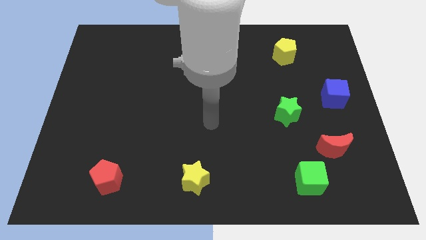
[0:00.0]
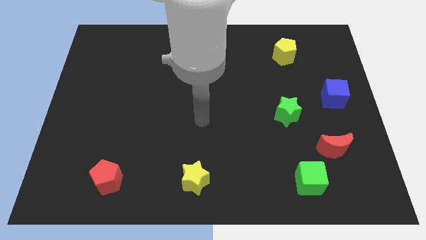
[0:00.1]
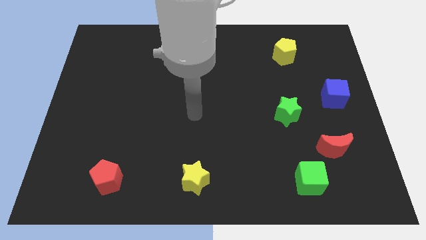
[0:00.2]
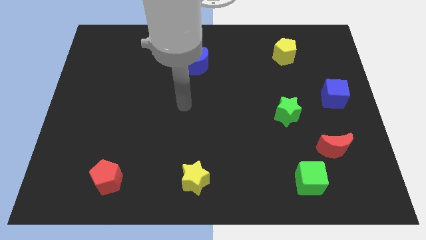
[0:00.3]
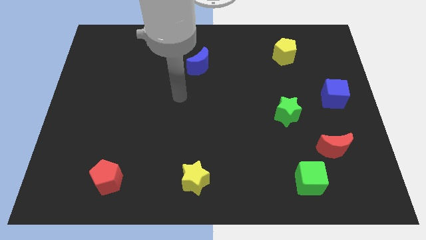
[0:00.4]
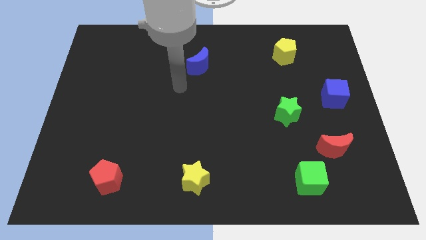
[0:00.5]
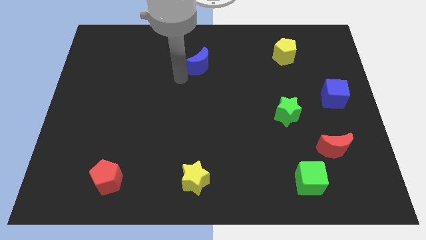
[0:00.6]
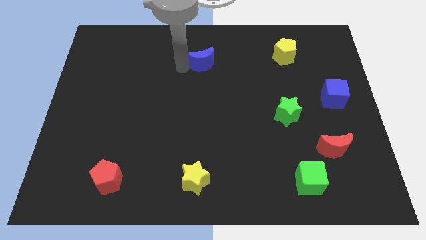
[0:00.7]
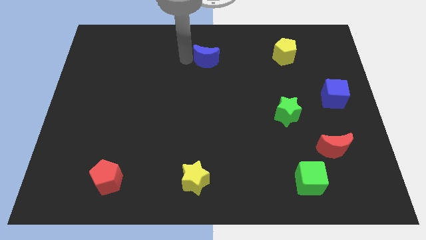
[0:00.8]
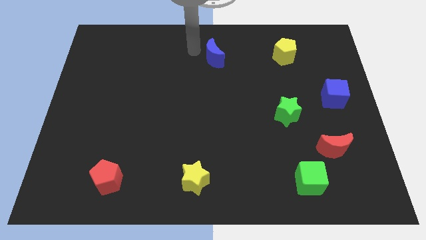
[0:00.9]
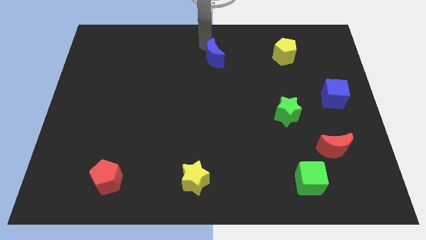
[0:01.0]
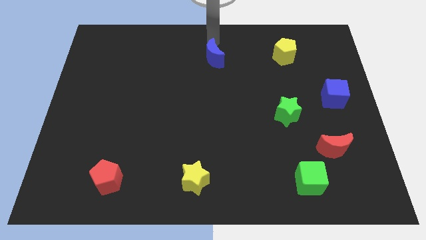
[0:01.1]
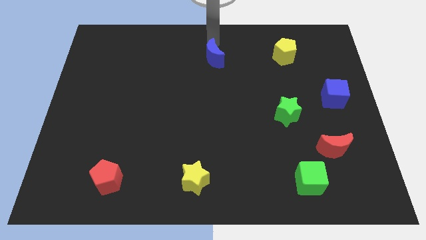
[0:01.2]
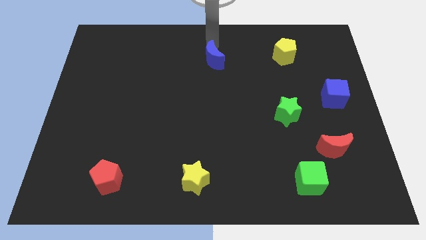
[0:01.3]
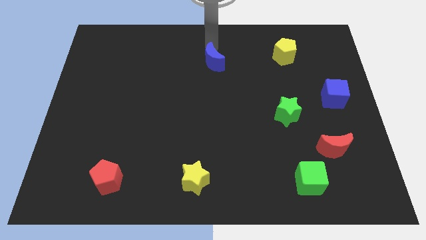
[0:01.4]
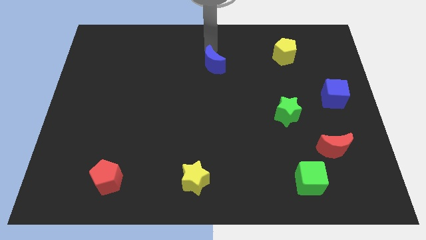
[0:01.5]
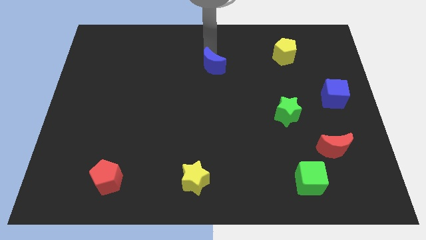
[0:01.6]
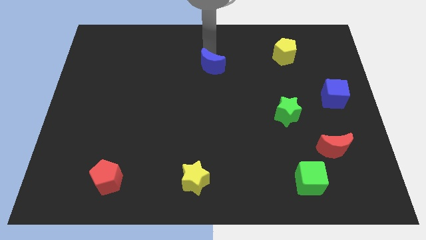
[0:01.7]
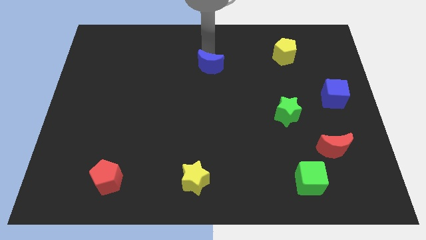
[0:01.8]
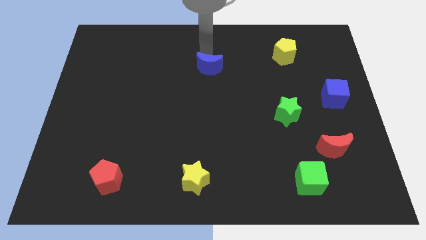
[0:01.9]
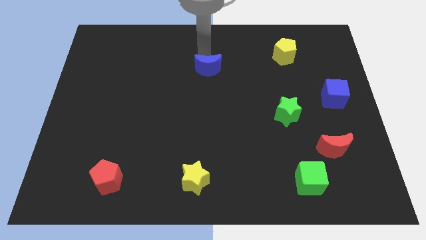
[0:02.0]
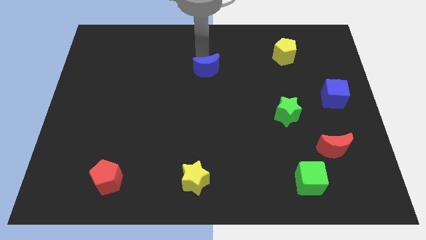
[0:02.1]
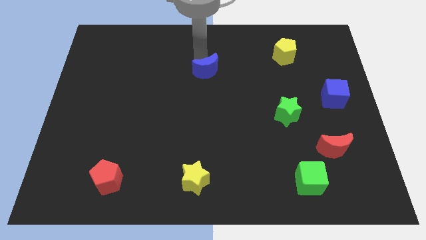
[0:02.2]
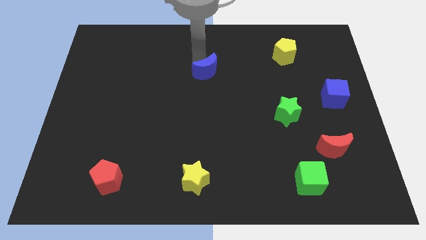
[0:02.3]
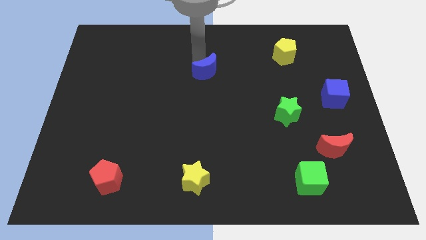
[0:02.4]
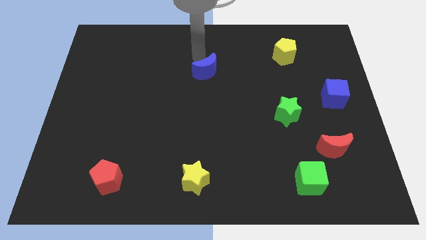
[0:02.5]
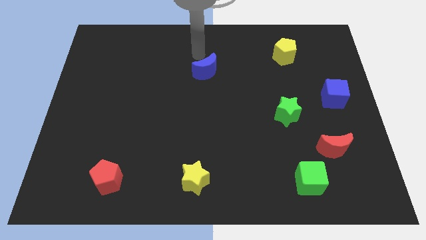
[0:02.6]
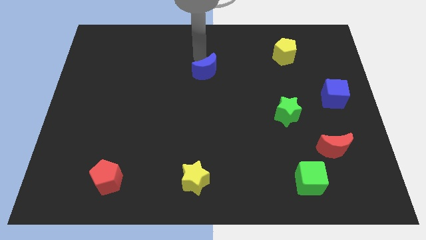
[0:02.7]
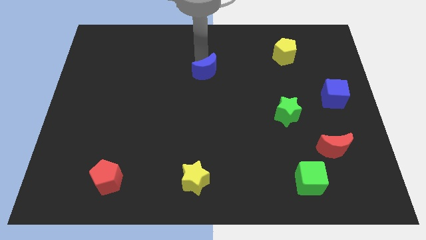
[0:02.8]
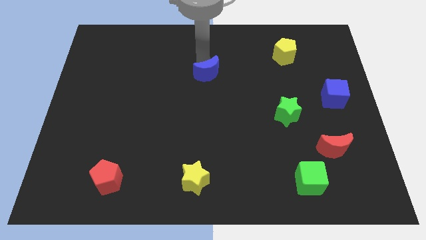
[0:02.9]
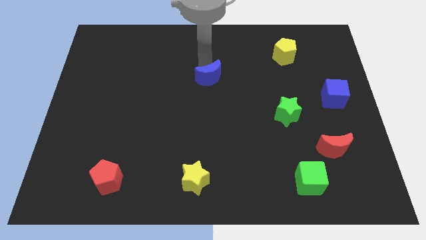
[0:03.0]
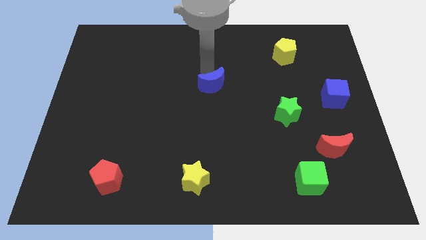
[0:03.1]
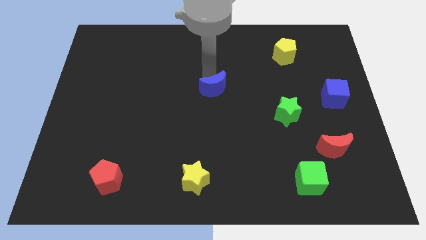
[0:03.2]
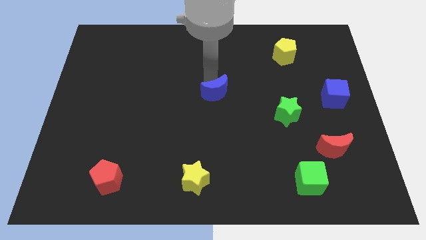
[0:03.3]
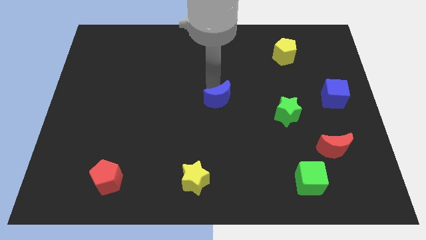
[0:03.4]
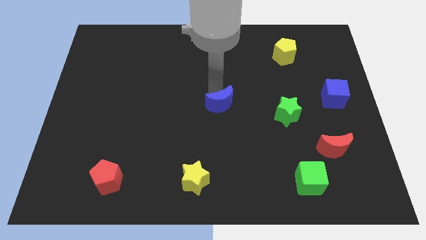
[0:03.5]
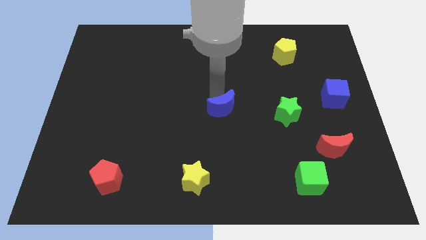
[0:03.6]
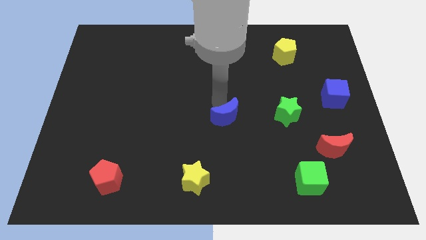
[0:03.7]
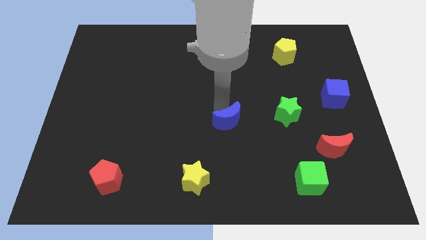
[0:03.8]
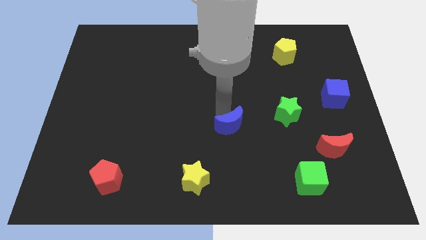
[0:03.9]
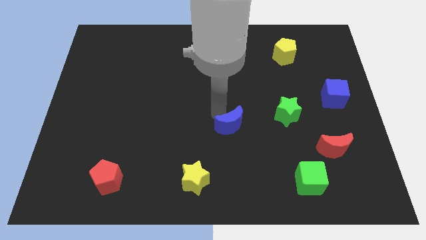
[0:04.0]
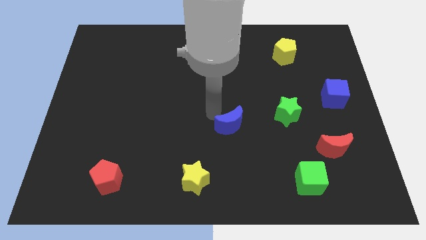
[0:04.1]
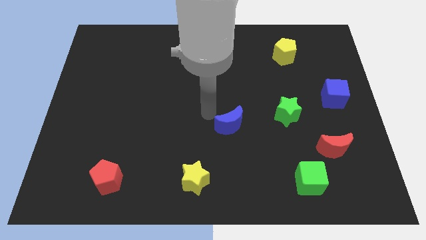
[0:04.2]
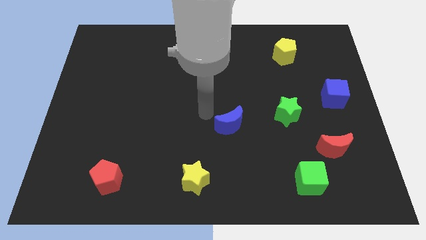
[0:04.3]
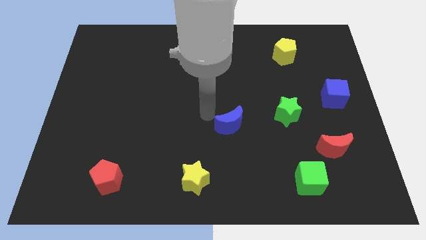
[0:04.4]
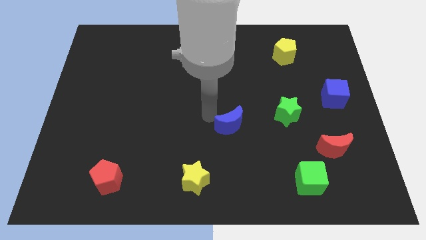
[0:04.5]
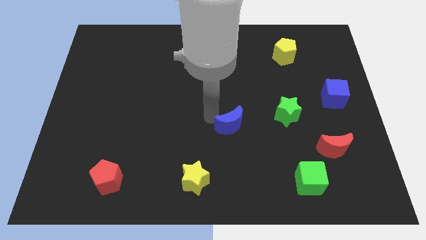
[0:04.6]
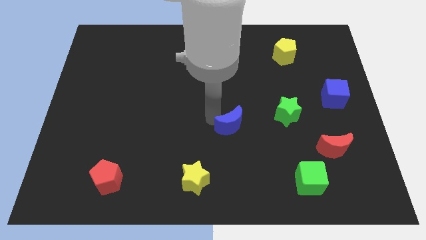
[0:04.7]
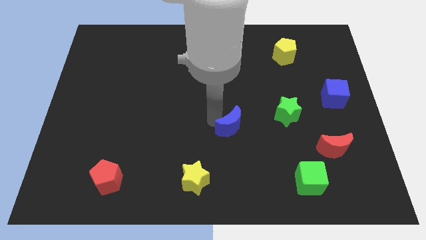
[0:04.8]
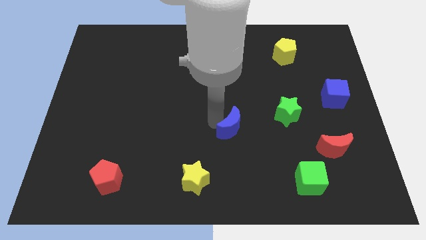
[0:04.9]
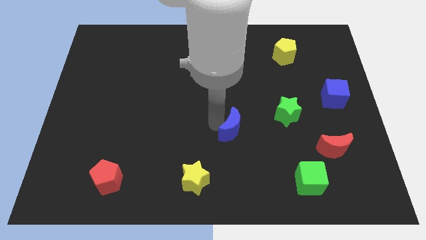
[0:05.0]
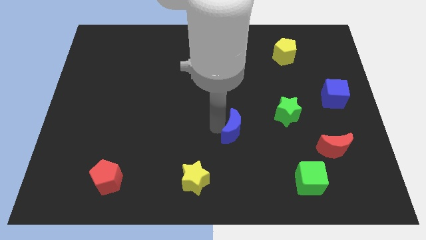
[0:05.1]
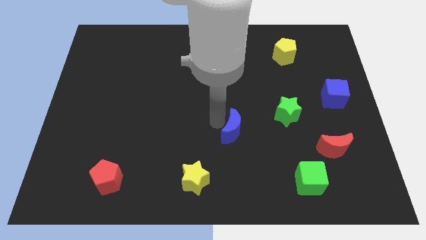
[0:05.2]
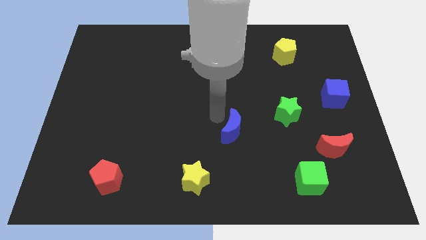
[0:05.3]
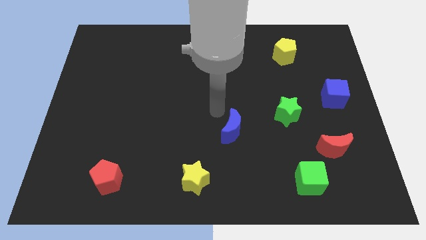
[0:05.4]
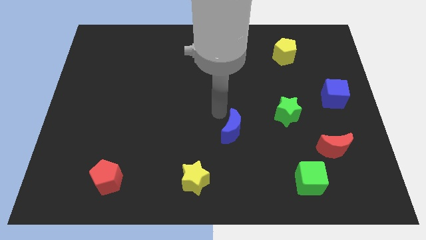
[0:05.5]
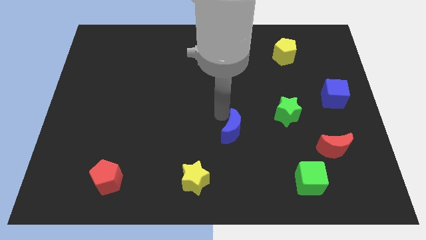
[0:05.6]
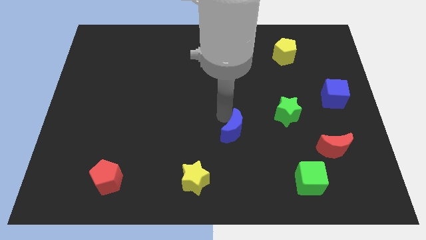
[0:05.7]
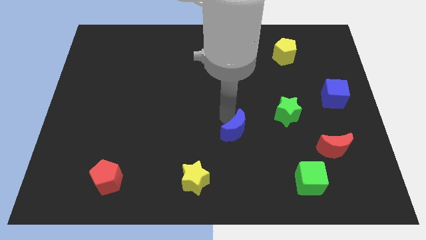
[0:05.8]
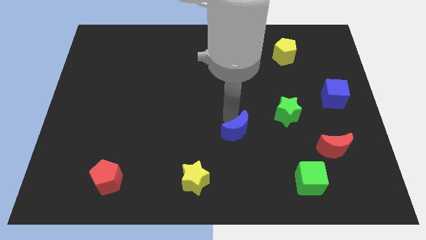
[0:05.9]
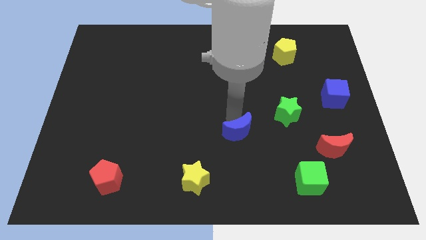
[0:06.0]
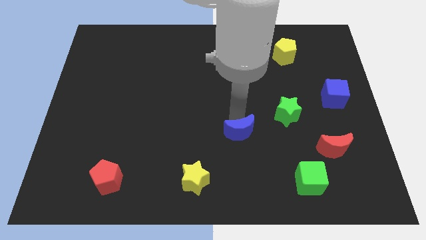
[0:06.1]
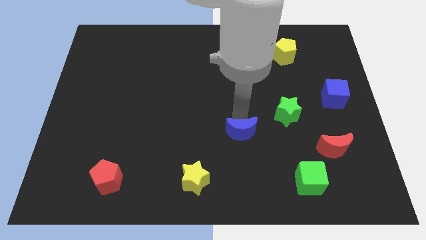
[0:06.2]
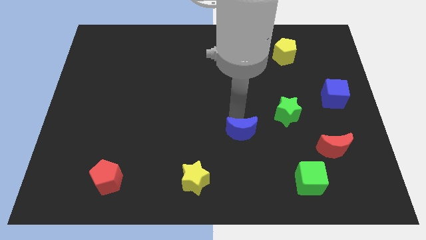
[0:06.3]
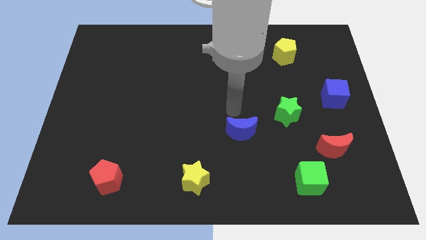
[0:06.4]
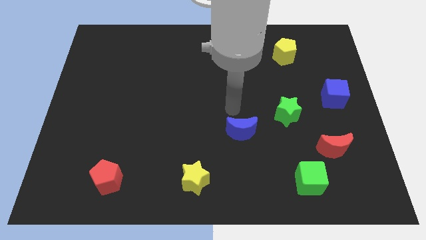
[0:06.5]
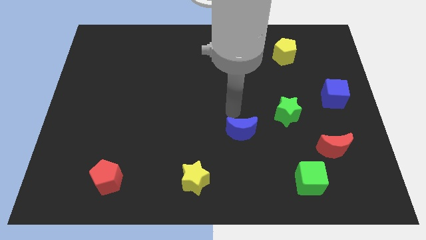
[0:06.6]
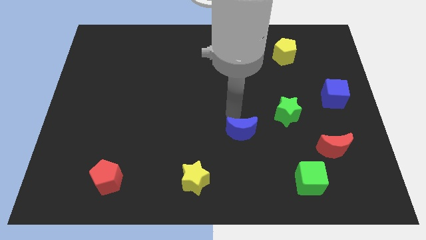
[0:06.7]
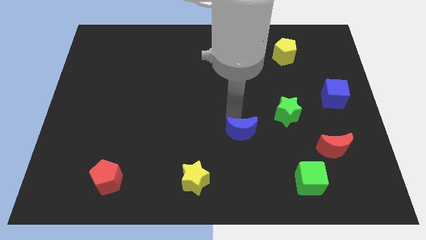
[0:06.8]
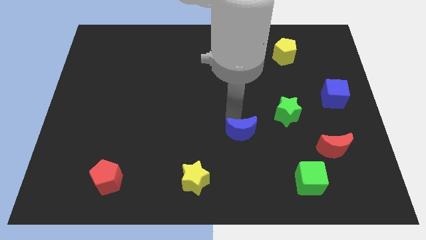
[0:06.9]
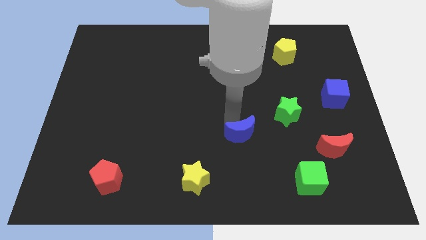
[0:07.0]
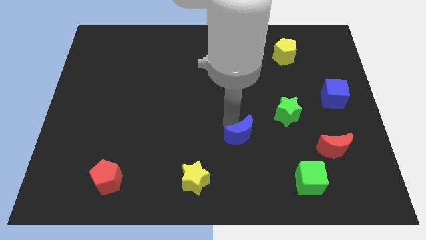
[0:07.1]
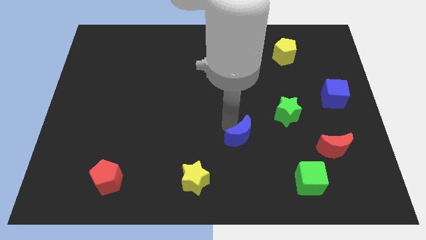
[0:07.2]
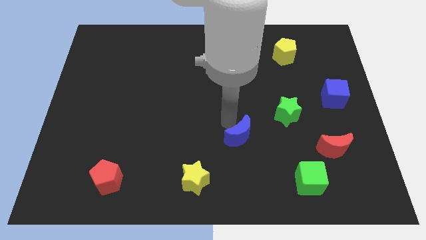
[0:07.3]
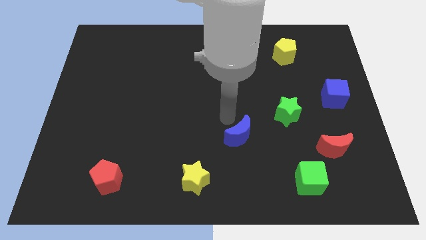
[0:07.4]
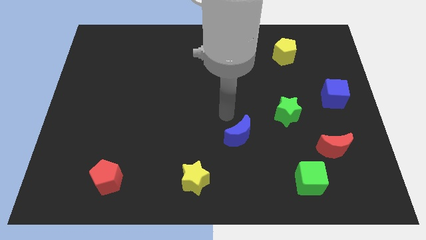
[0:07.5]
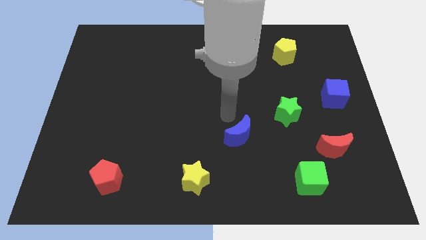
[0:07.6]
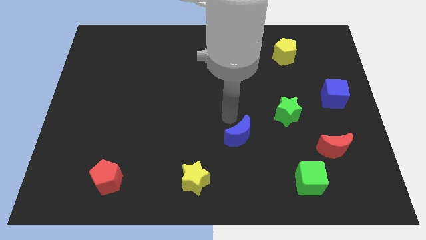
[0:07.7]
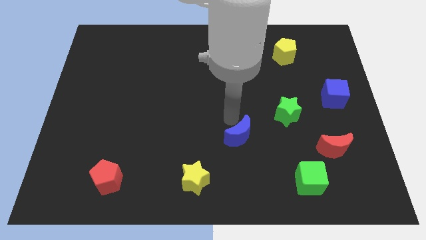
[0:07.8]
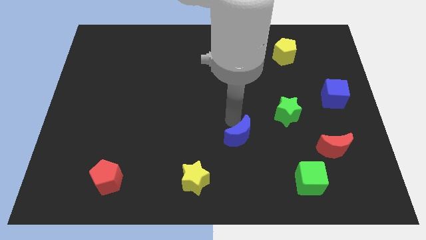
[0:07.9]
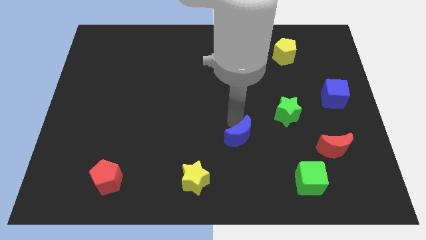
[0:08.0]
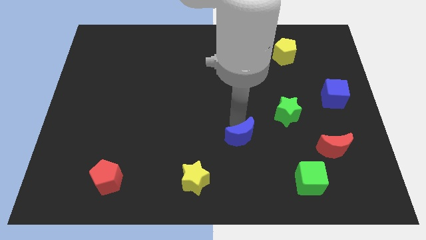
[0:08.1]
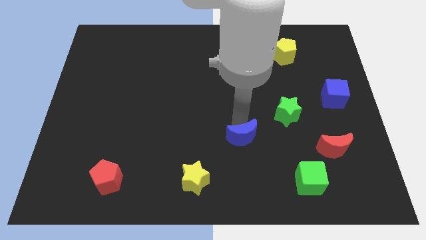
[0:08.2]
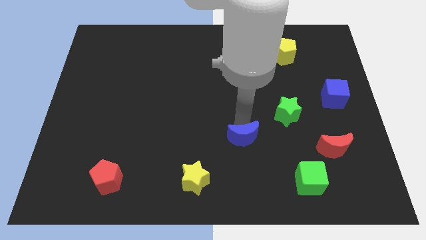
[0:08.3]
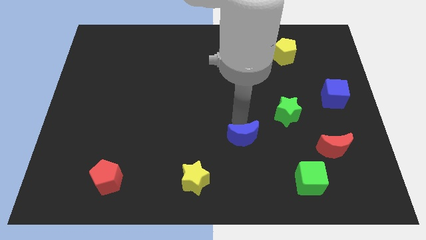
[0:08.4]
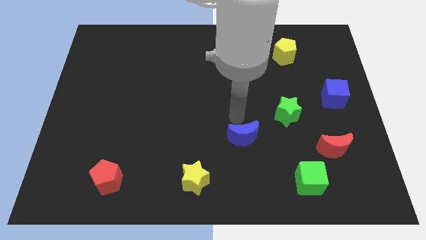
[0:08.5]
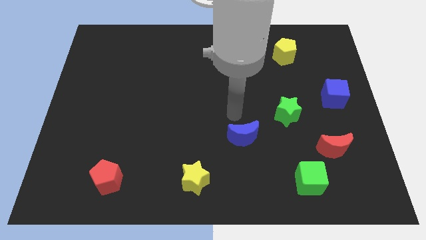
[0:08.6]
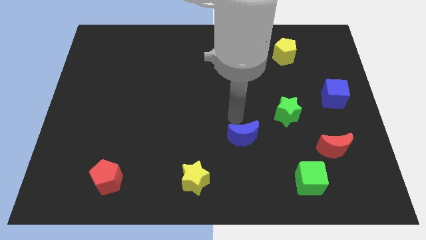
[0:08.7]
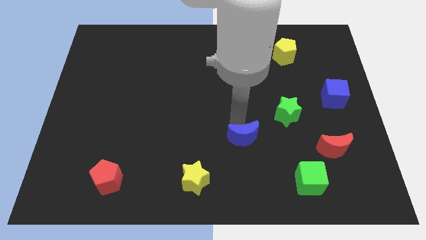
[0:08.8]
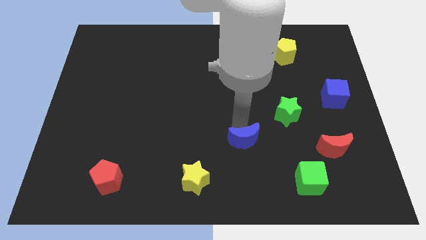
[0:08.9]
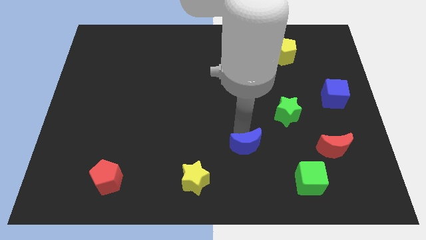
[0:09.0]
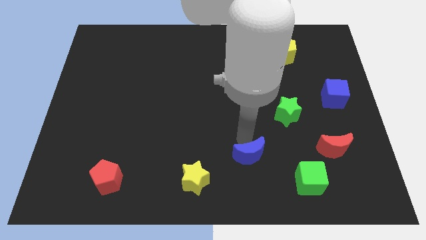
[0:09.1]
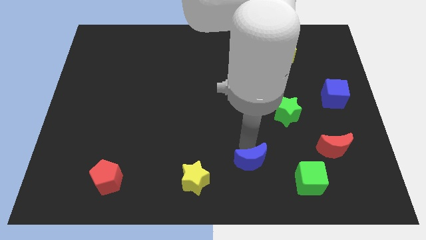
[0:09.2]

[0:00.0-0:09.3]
move the blue moon to the left side of the green cube
